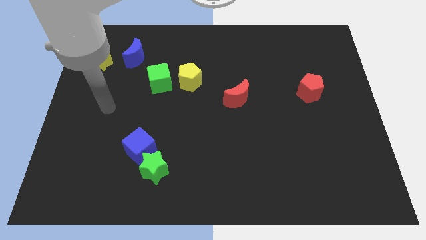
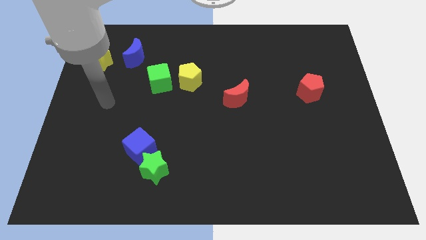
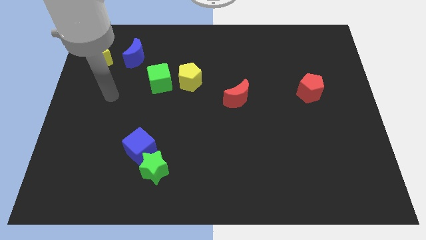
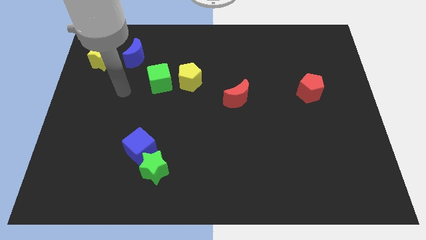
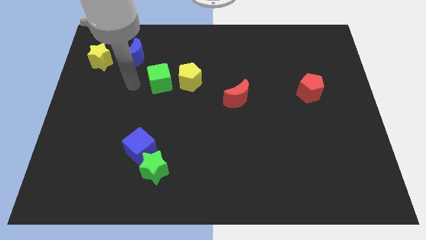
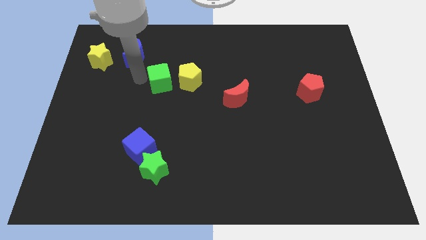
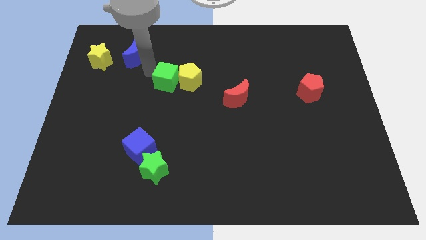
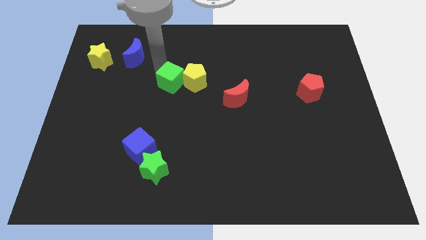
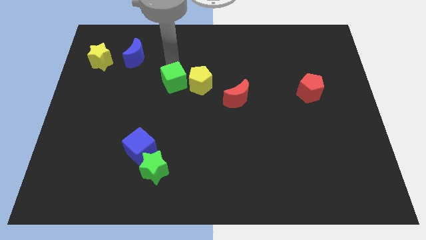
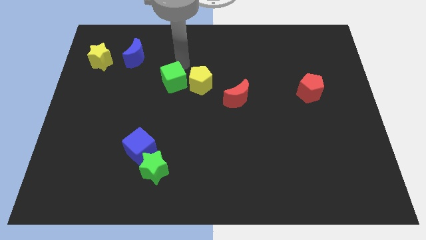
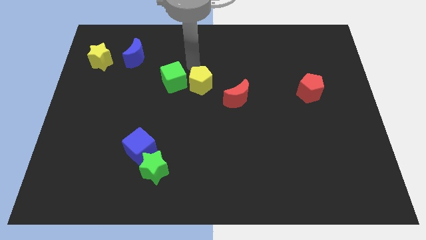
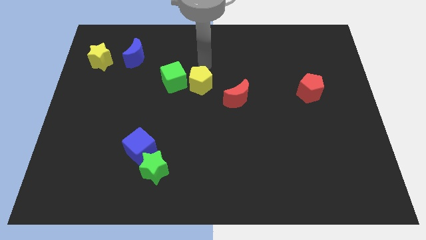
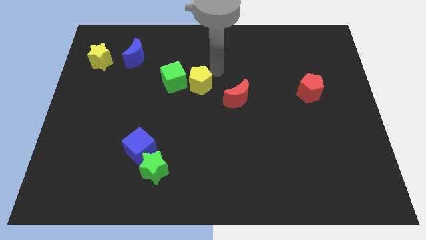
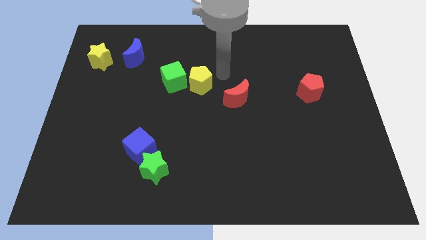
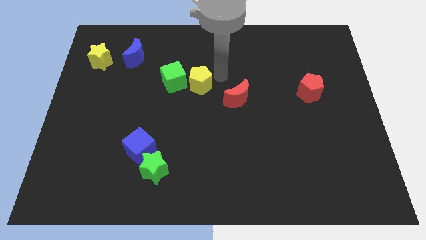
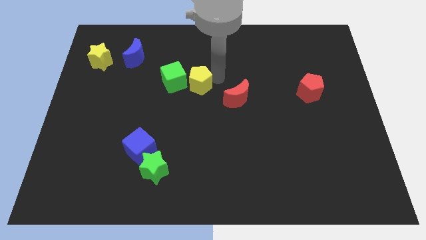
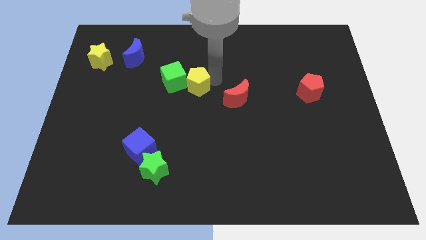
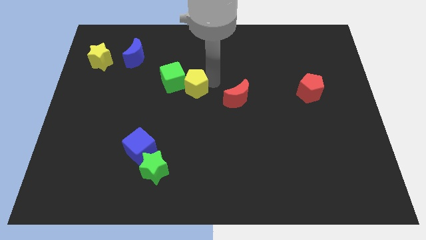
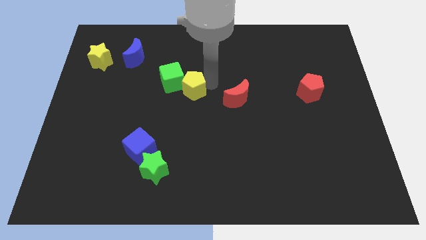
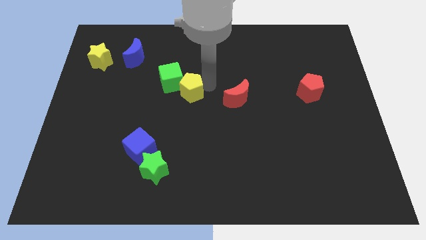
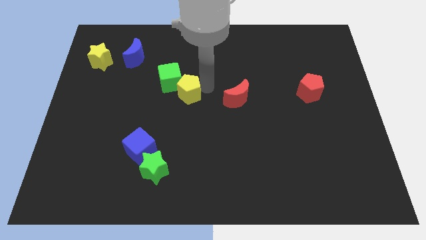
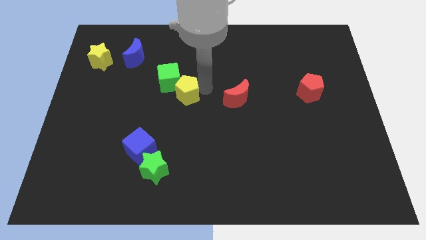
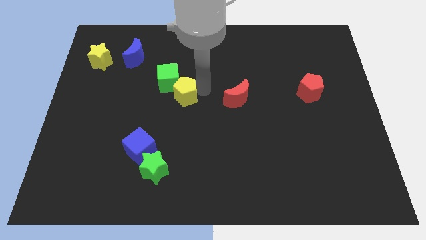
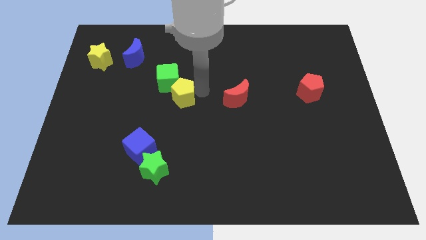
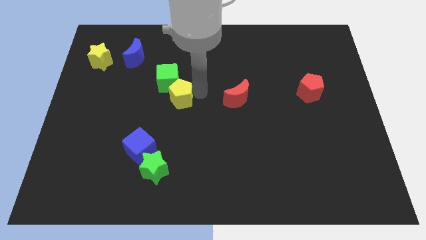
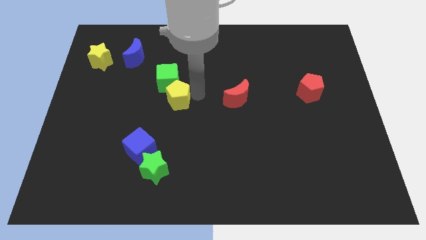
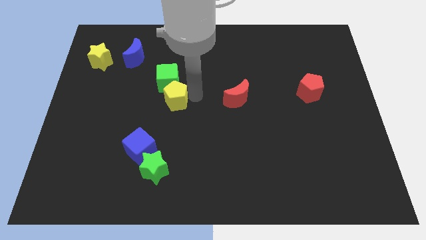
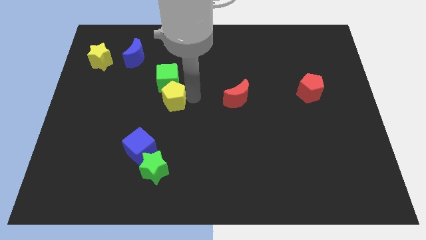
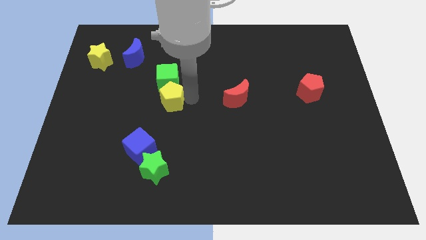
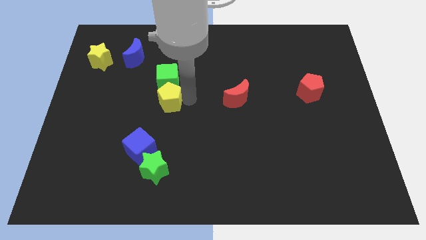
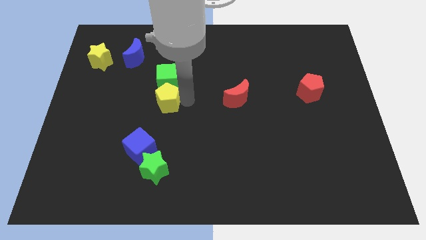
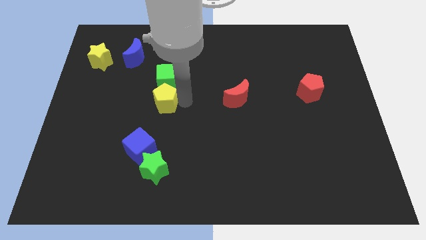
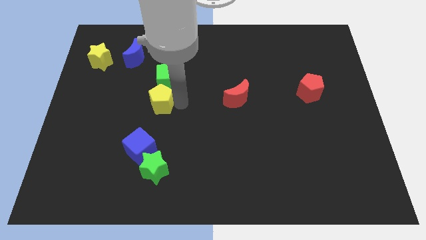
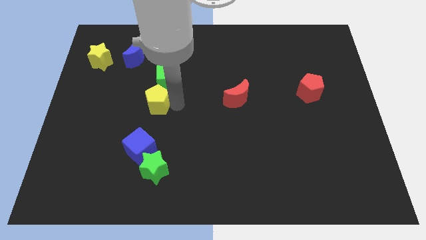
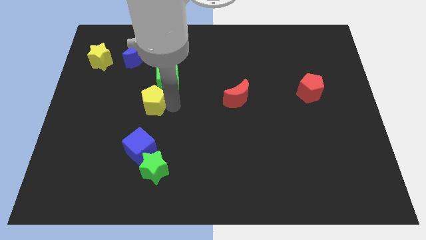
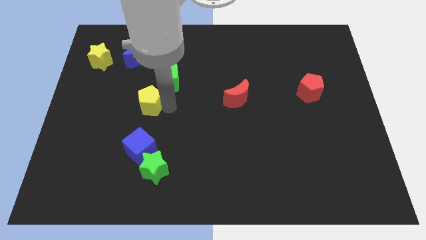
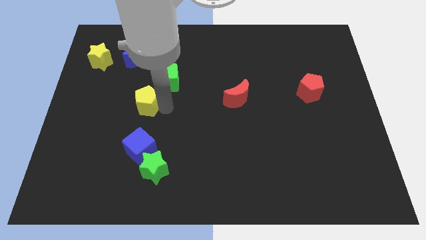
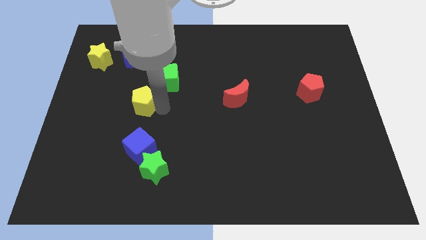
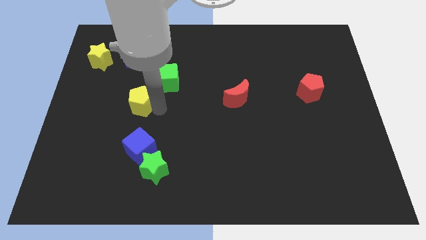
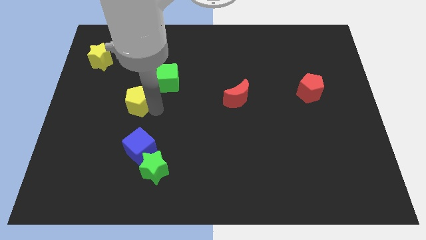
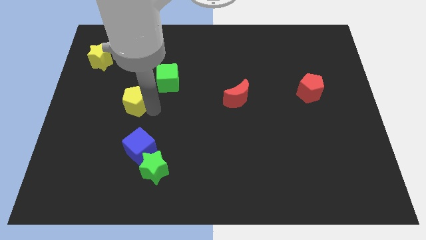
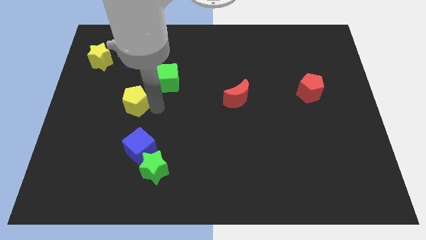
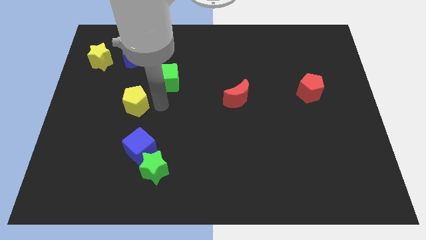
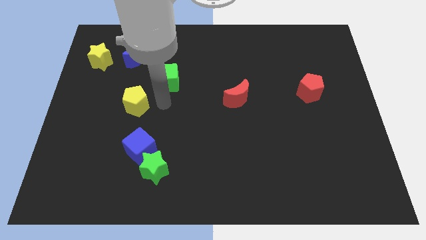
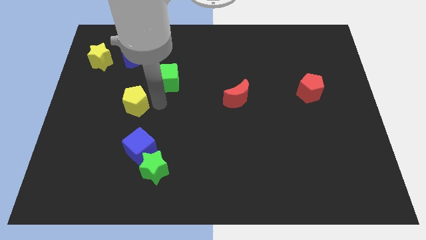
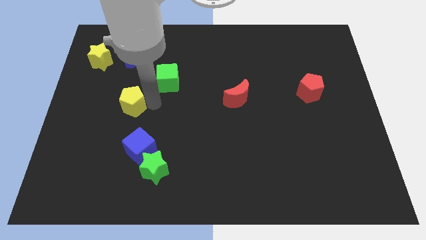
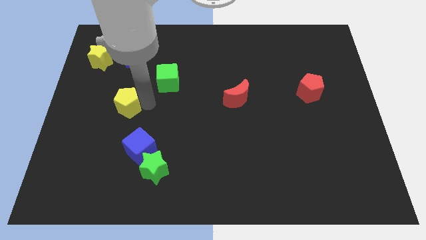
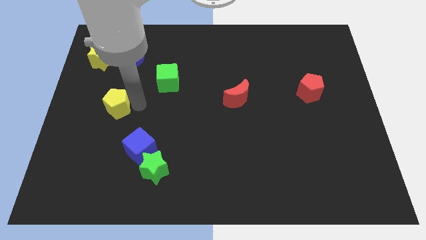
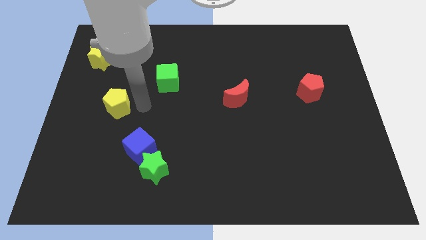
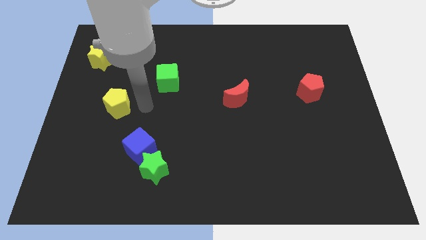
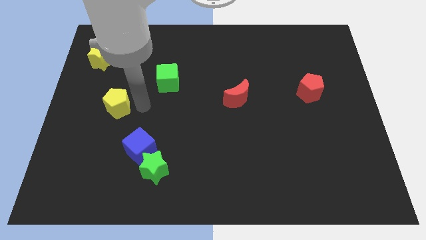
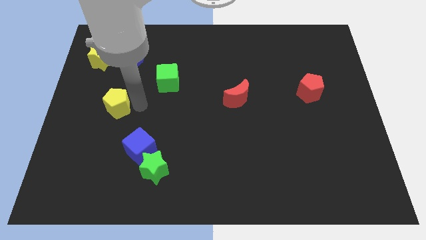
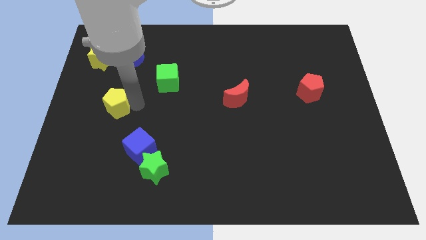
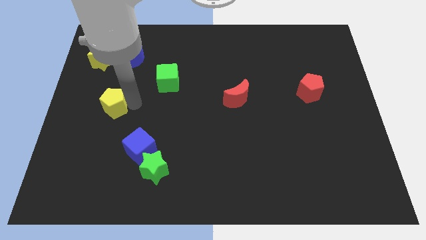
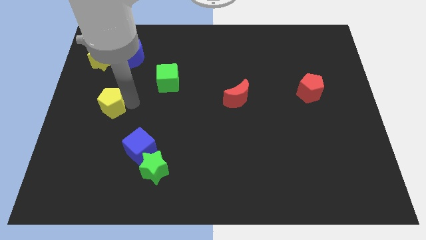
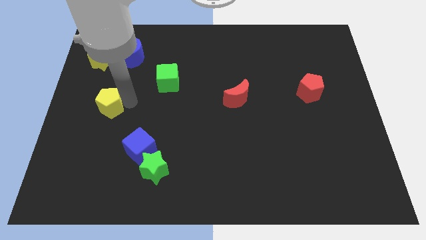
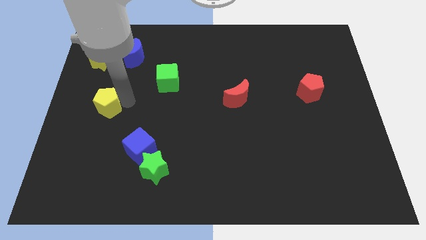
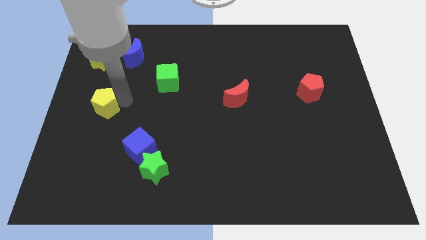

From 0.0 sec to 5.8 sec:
put the yellow pentagon to the left side

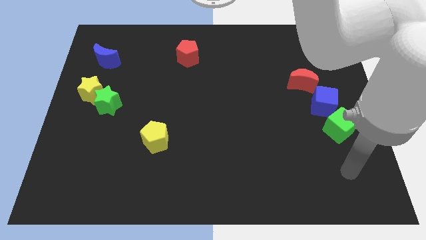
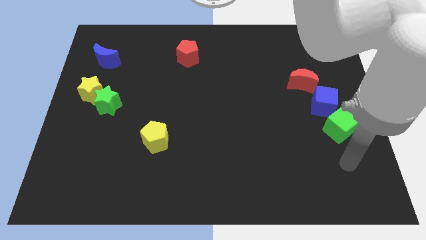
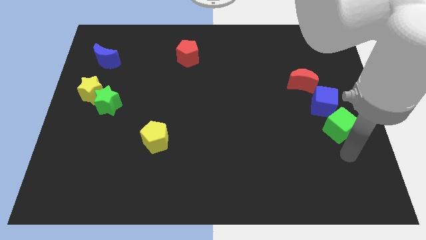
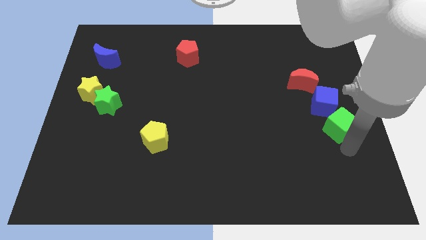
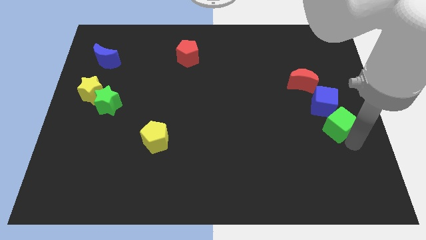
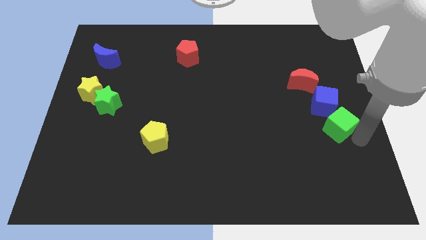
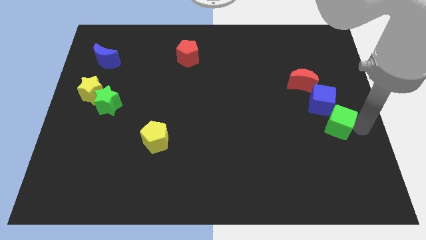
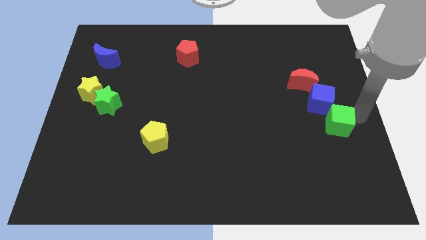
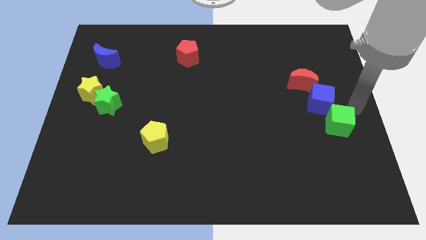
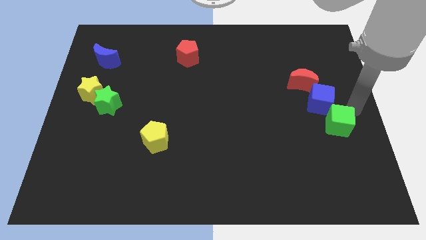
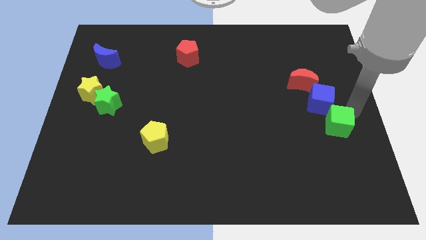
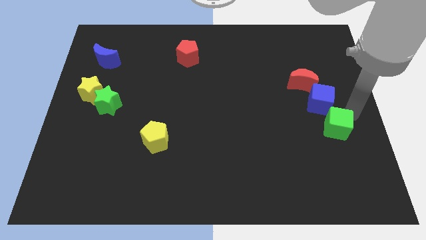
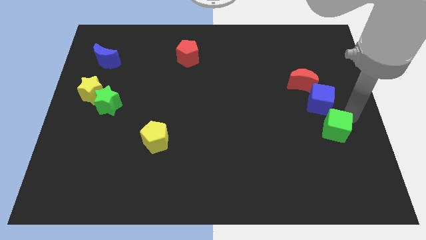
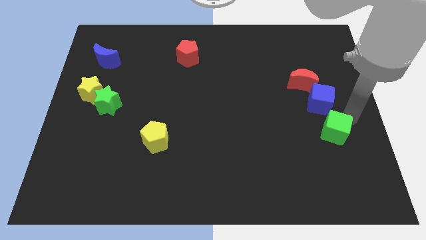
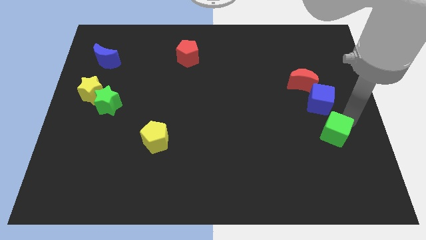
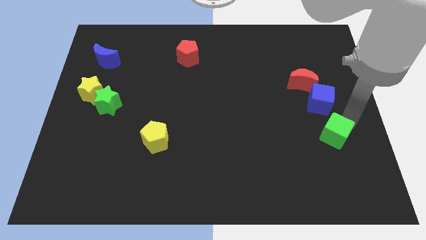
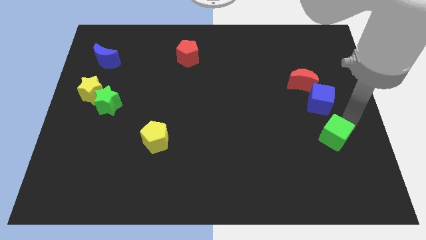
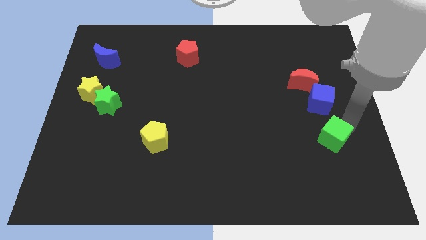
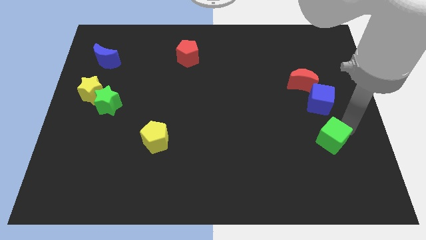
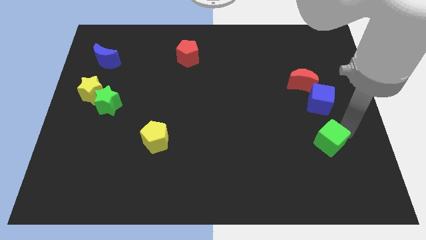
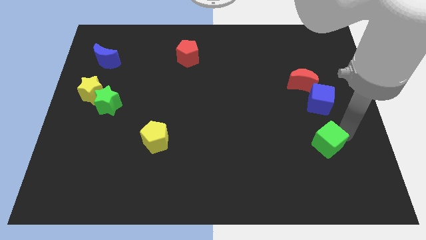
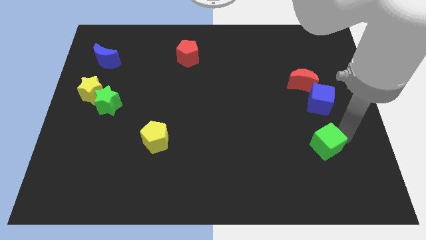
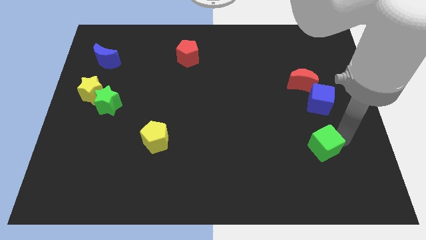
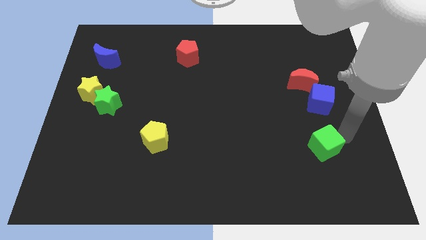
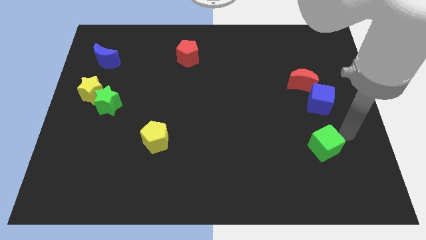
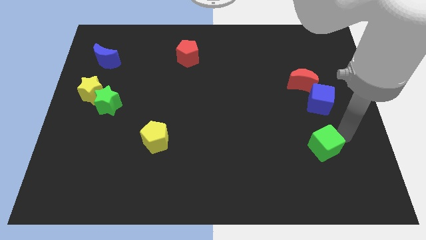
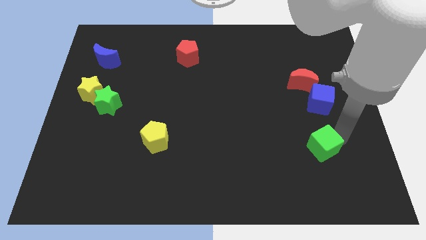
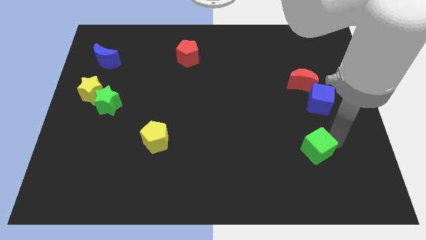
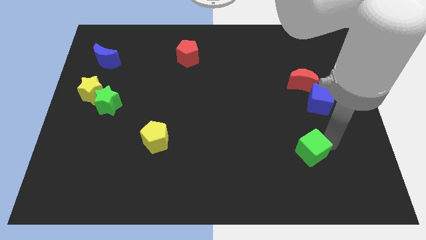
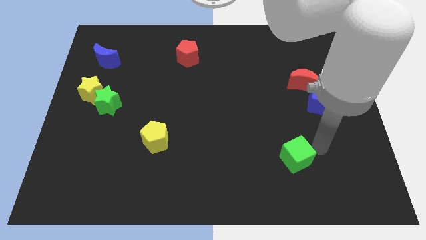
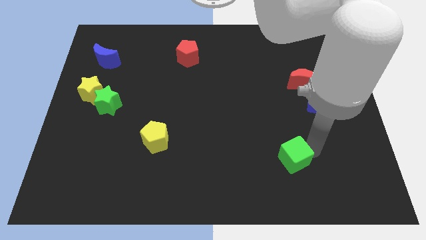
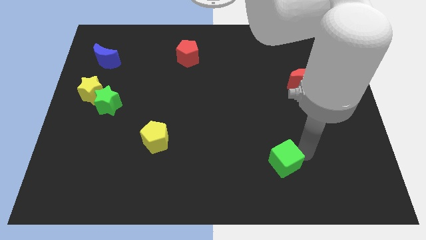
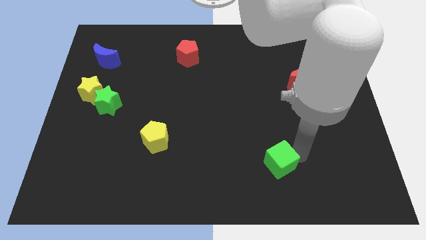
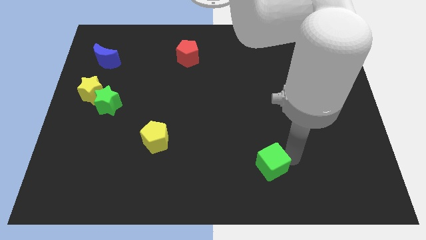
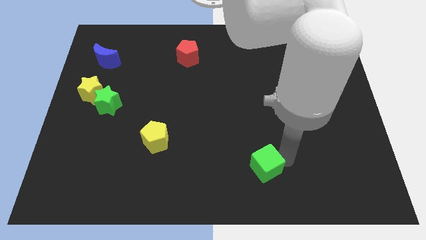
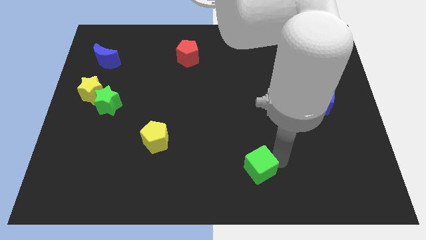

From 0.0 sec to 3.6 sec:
slide the green cube to the bottom
